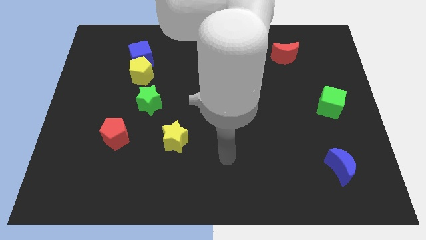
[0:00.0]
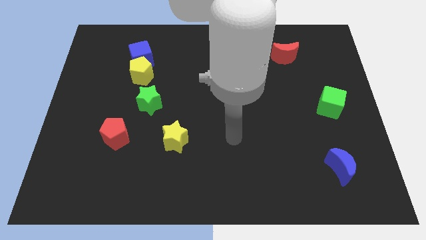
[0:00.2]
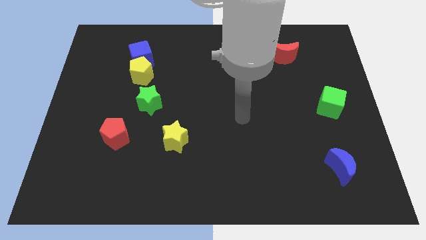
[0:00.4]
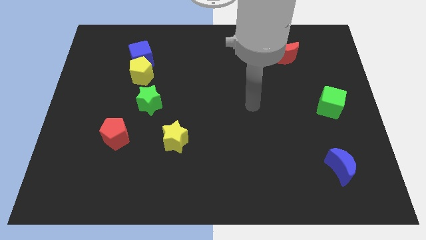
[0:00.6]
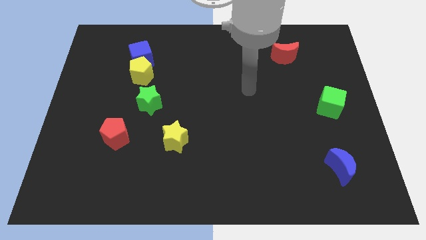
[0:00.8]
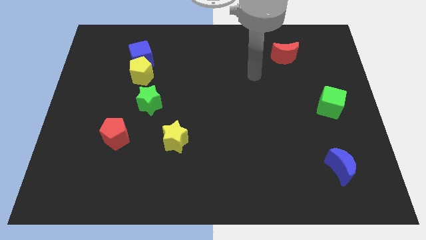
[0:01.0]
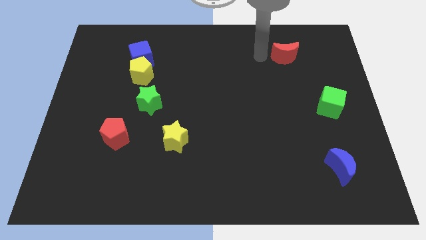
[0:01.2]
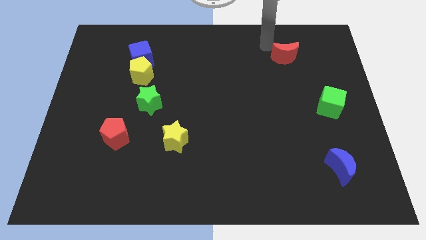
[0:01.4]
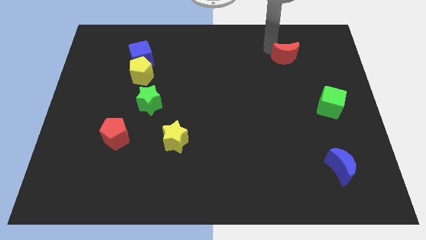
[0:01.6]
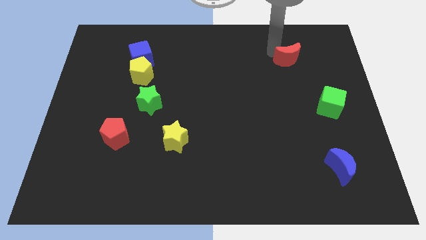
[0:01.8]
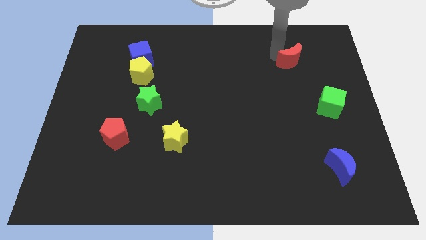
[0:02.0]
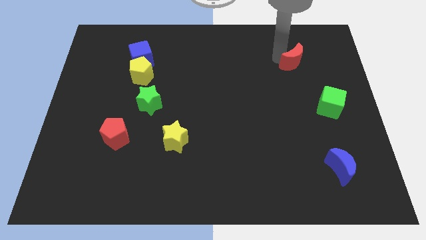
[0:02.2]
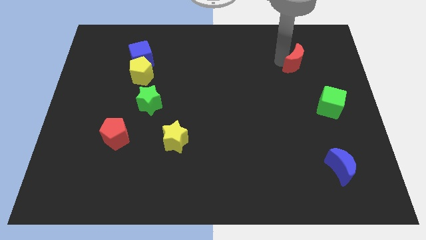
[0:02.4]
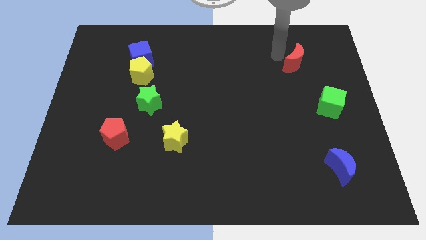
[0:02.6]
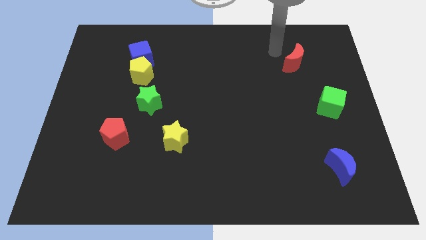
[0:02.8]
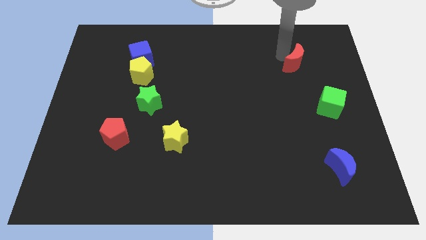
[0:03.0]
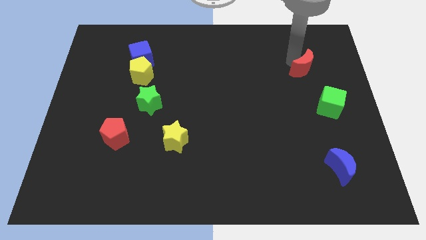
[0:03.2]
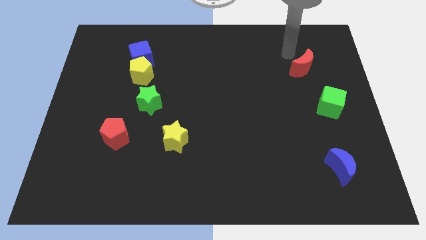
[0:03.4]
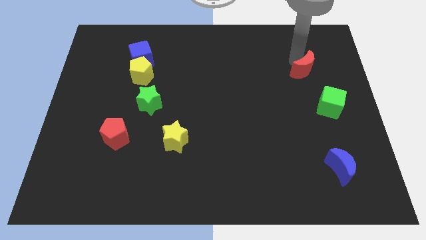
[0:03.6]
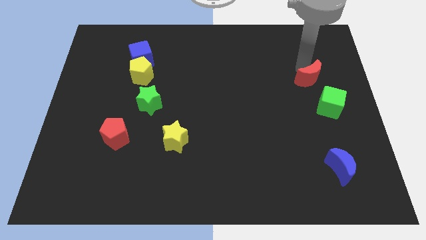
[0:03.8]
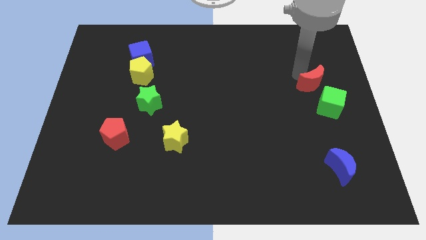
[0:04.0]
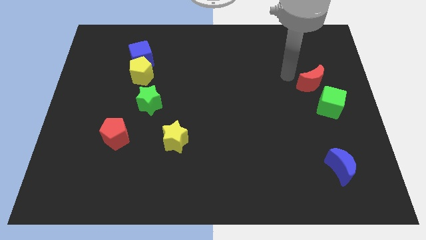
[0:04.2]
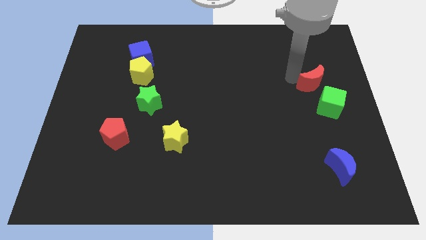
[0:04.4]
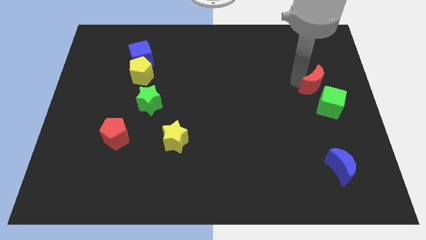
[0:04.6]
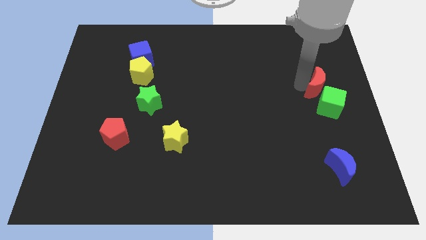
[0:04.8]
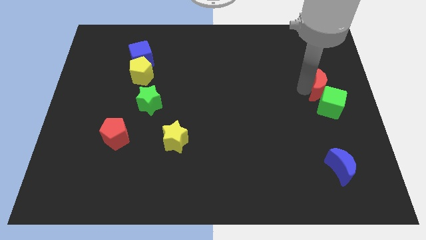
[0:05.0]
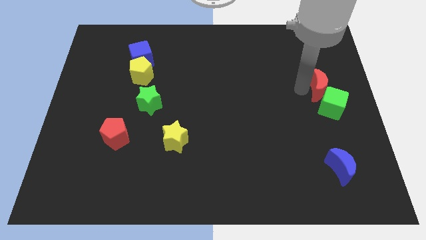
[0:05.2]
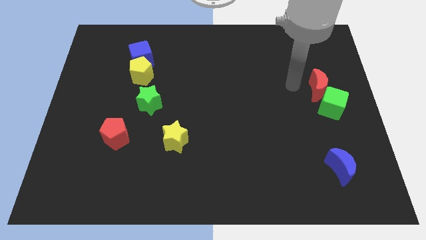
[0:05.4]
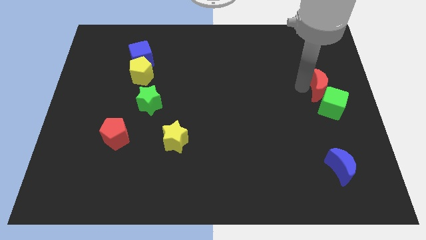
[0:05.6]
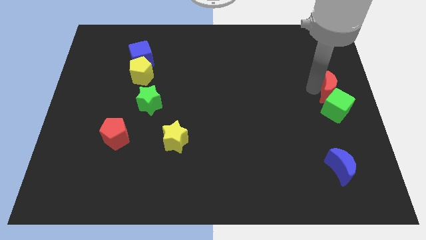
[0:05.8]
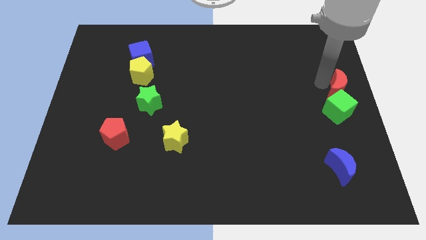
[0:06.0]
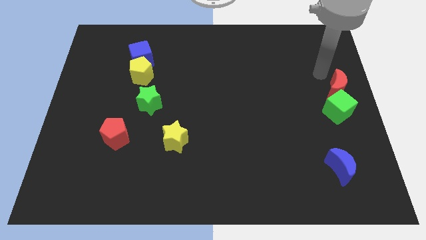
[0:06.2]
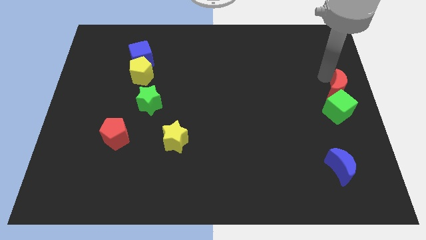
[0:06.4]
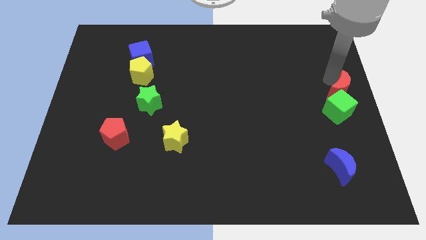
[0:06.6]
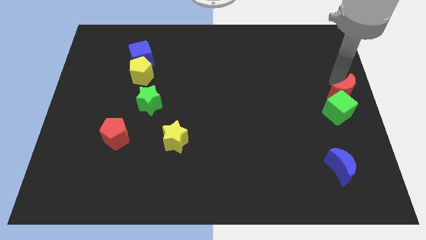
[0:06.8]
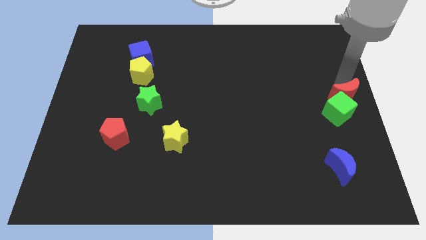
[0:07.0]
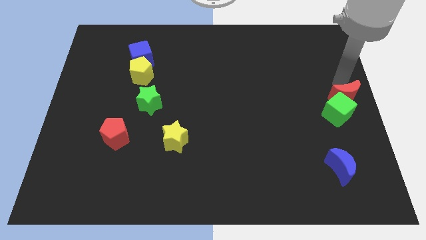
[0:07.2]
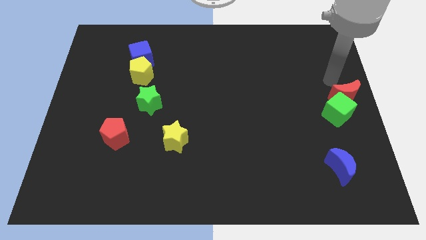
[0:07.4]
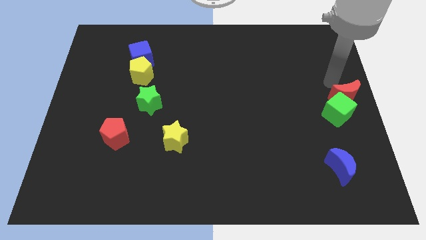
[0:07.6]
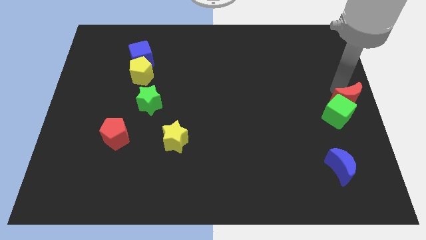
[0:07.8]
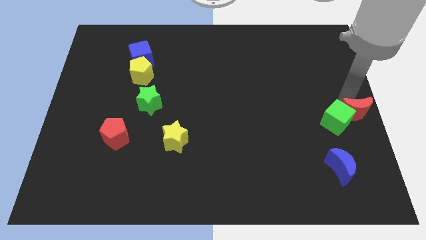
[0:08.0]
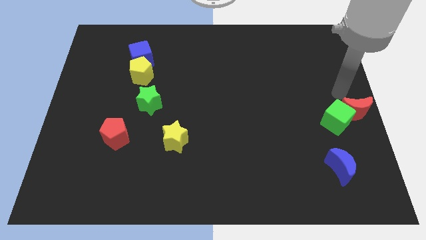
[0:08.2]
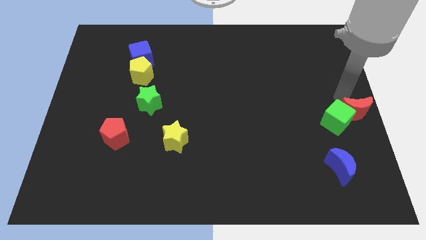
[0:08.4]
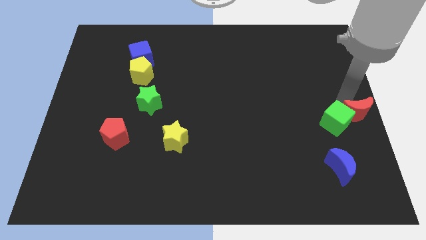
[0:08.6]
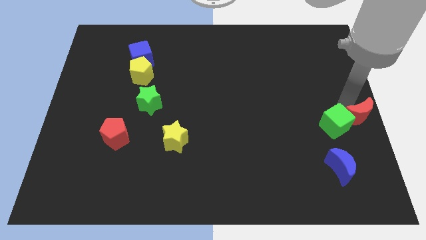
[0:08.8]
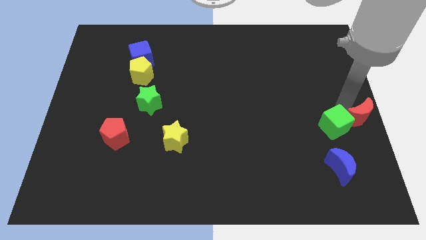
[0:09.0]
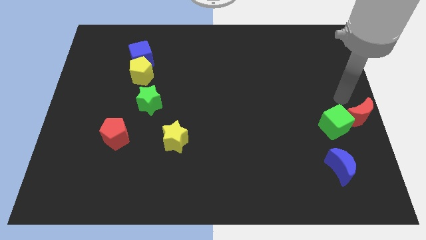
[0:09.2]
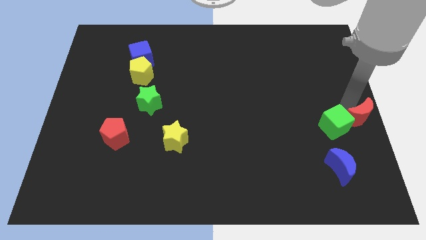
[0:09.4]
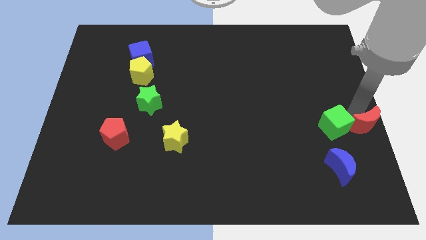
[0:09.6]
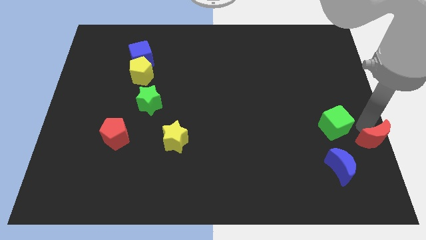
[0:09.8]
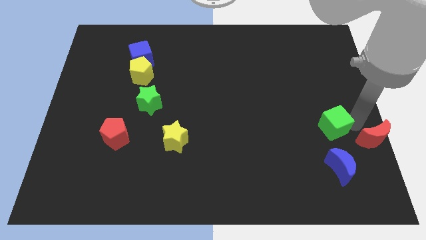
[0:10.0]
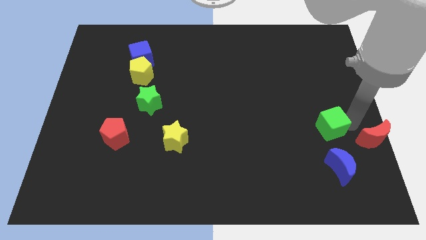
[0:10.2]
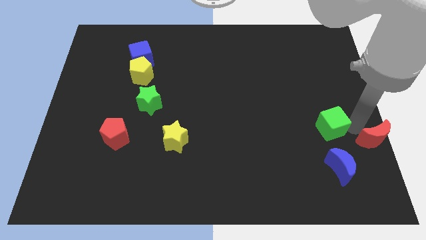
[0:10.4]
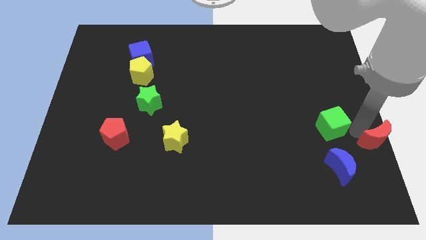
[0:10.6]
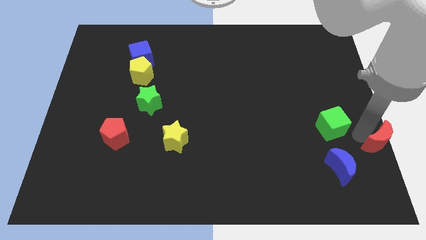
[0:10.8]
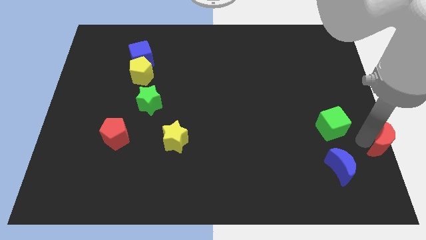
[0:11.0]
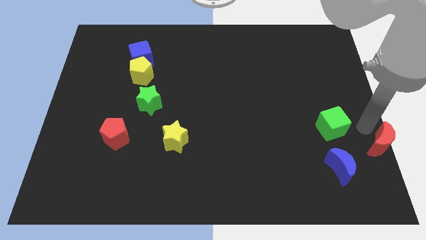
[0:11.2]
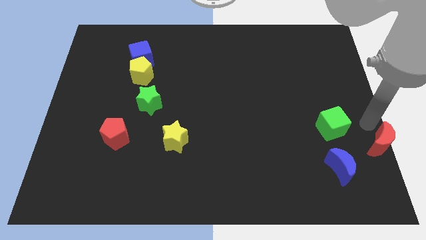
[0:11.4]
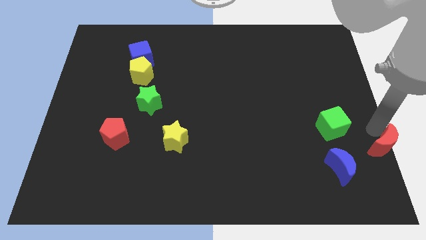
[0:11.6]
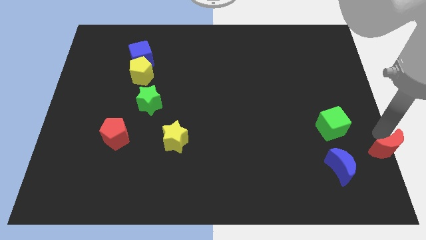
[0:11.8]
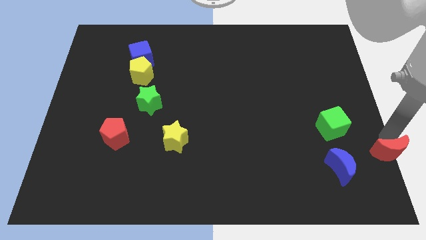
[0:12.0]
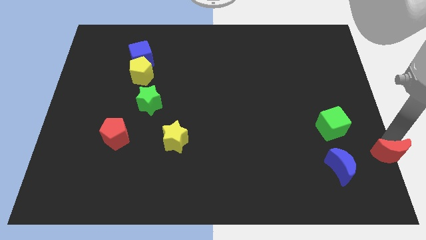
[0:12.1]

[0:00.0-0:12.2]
push the red moon to the bottom right corner

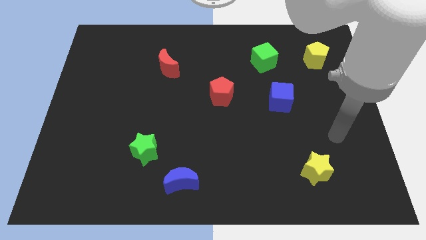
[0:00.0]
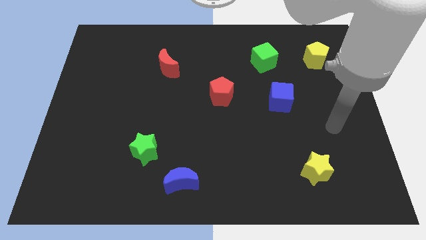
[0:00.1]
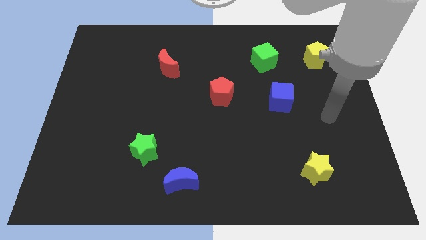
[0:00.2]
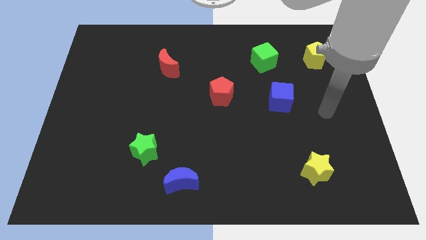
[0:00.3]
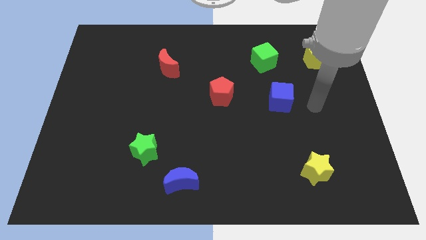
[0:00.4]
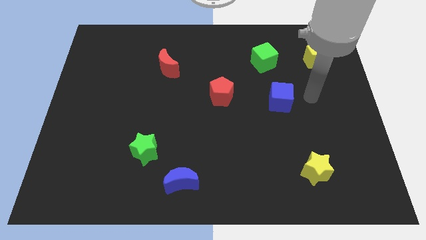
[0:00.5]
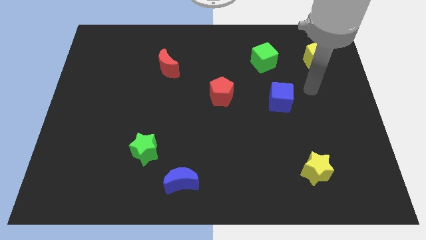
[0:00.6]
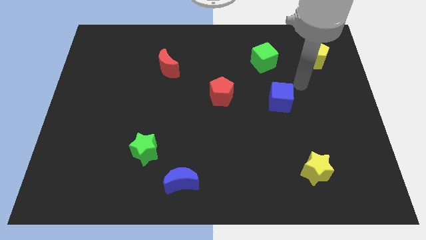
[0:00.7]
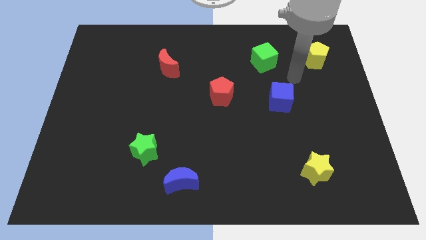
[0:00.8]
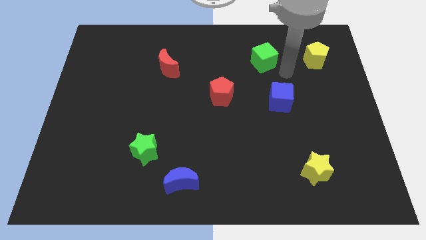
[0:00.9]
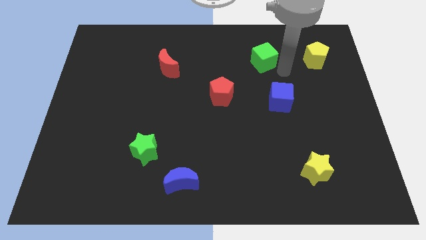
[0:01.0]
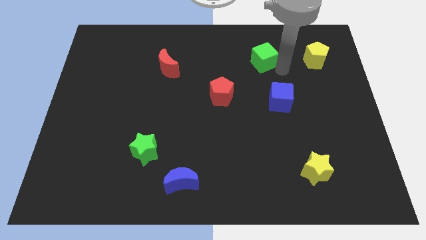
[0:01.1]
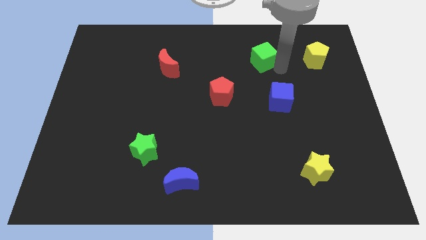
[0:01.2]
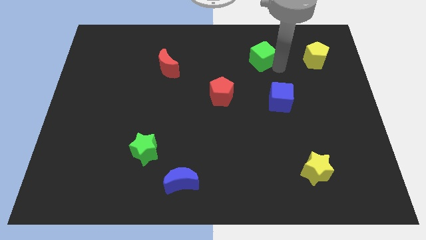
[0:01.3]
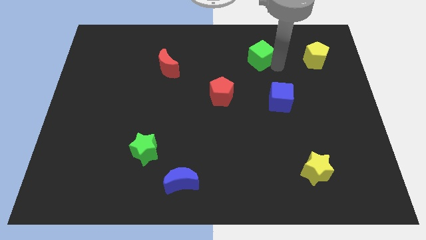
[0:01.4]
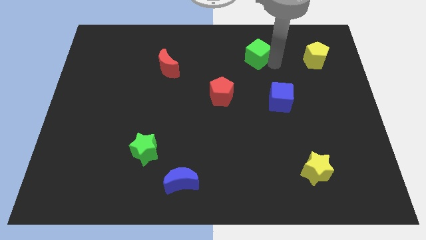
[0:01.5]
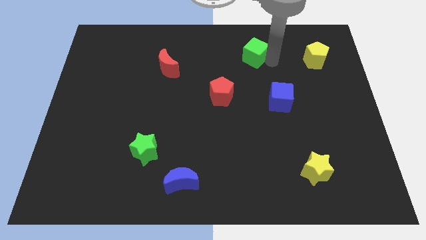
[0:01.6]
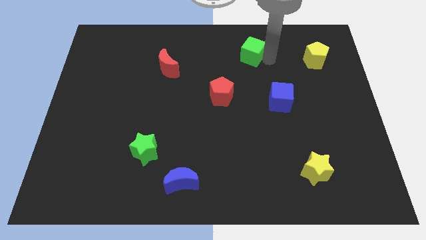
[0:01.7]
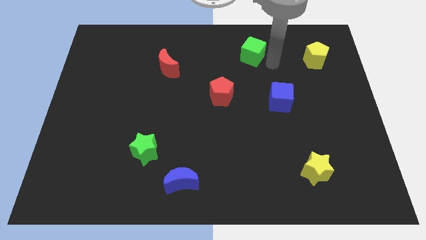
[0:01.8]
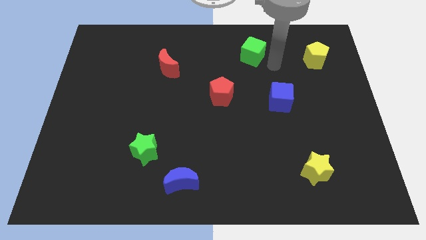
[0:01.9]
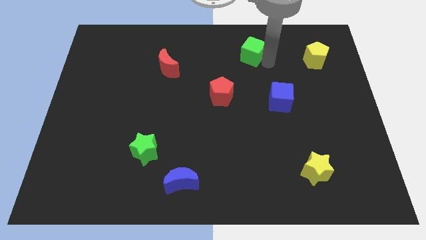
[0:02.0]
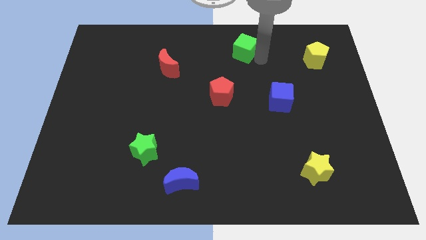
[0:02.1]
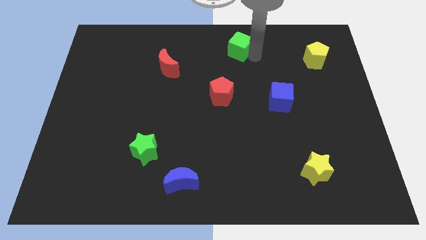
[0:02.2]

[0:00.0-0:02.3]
slide the green cube to the top side
